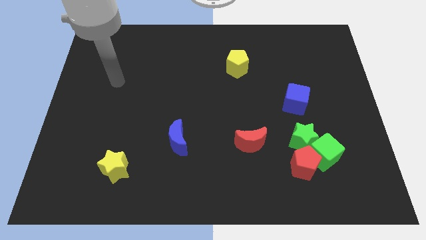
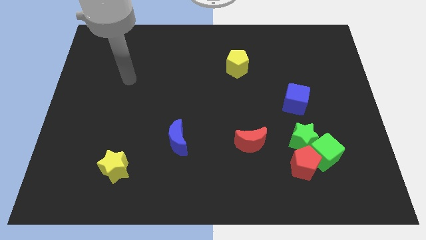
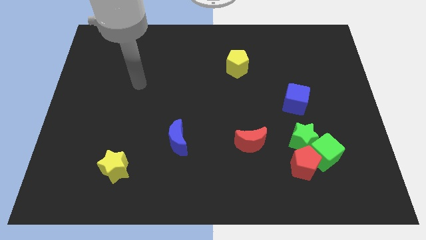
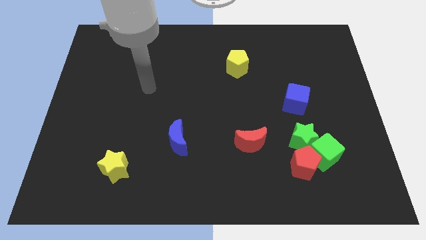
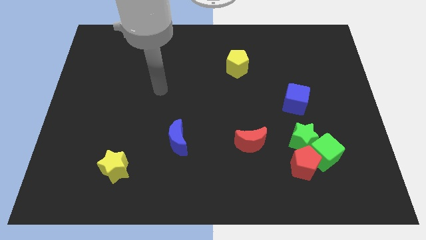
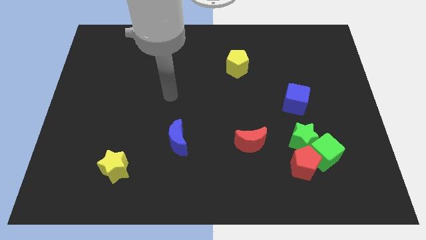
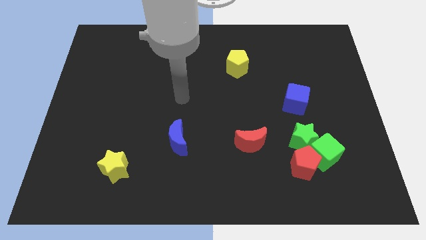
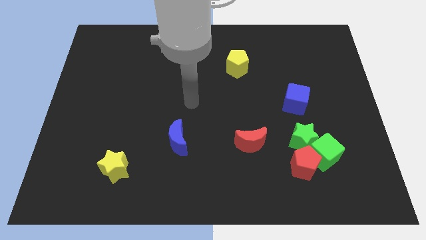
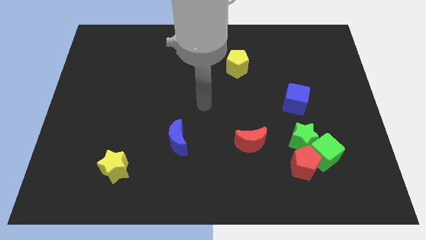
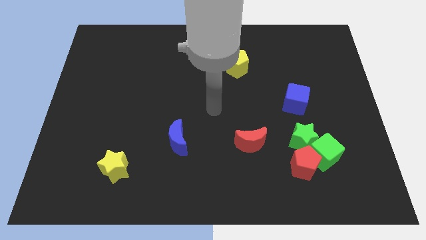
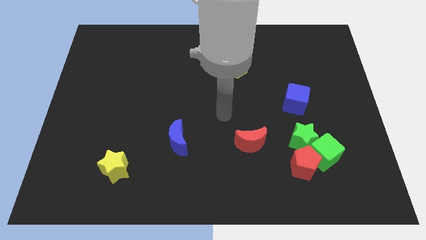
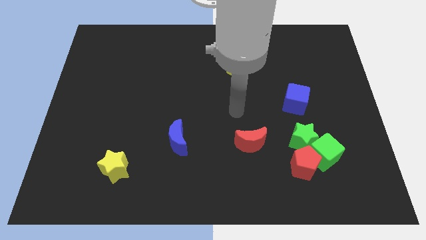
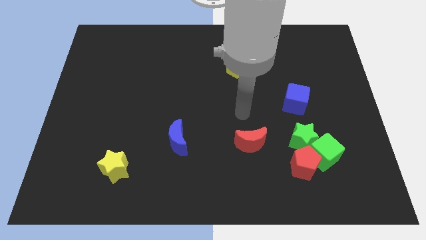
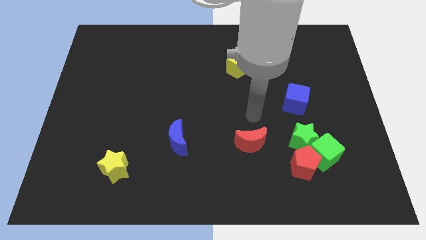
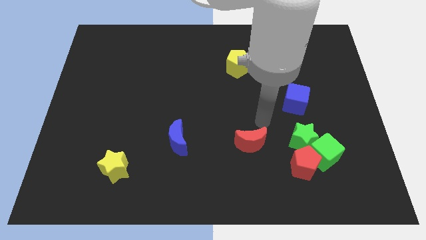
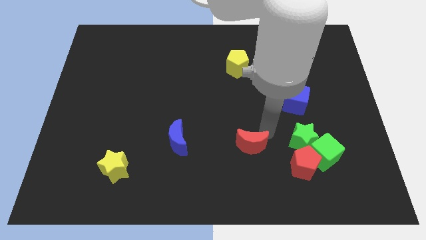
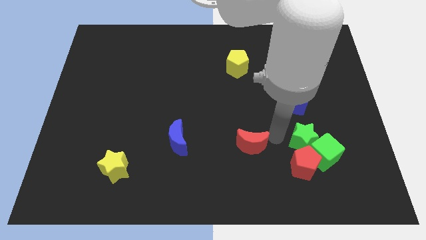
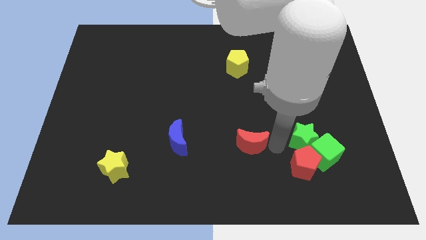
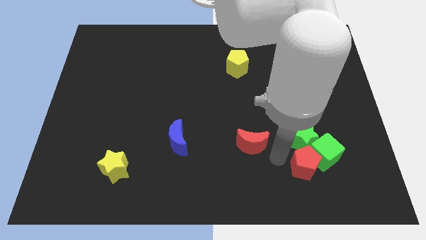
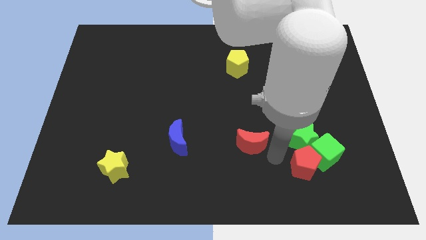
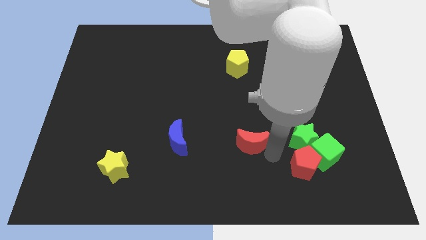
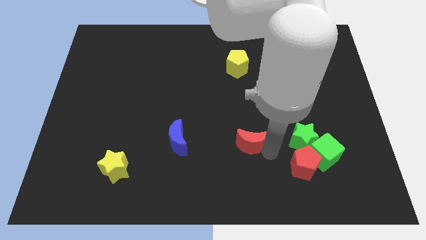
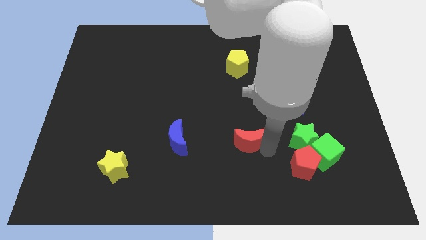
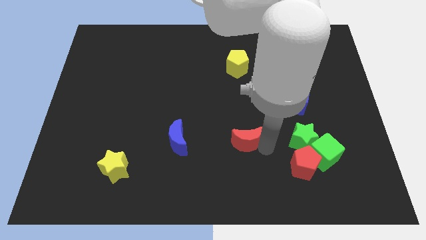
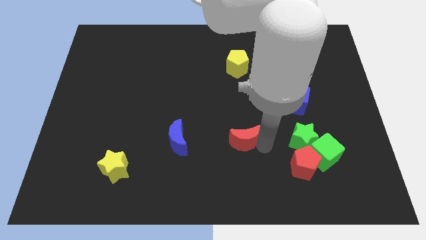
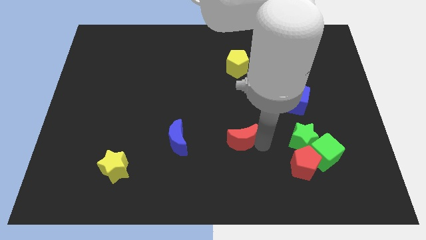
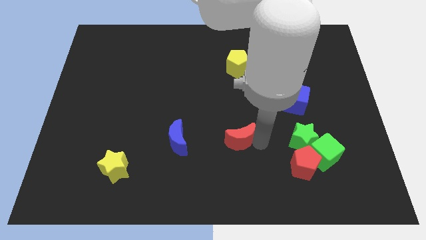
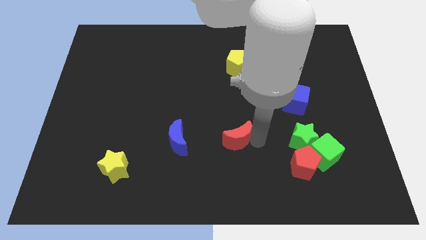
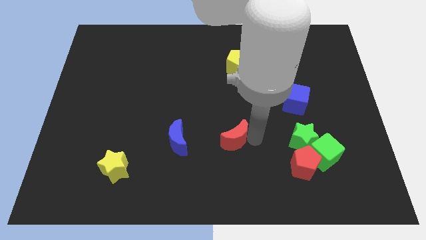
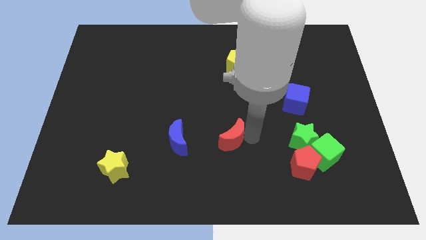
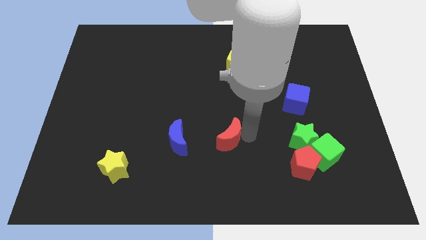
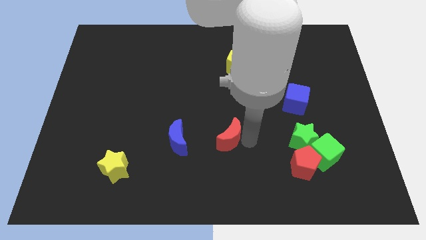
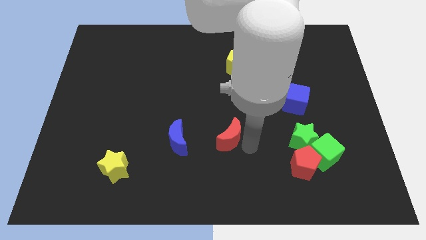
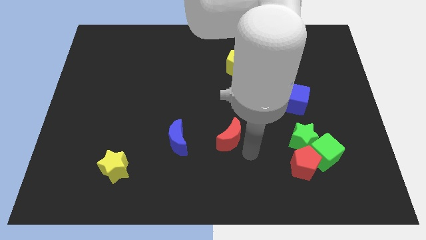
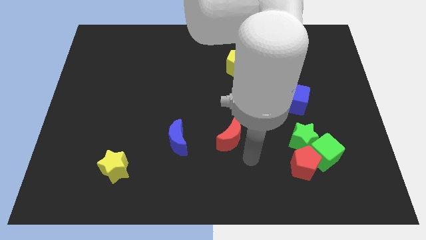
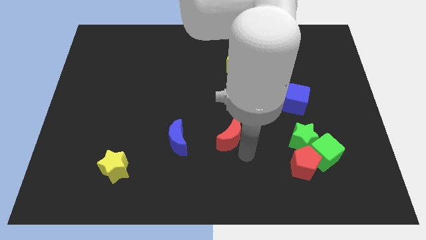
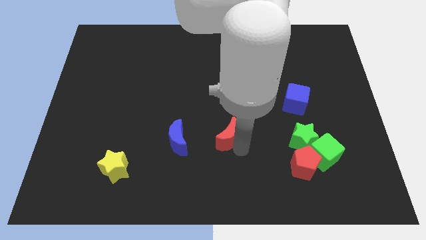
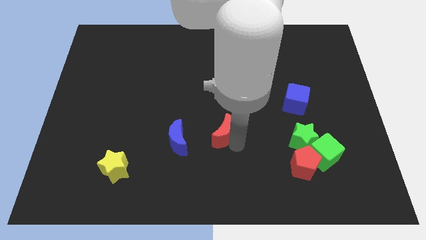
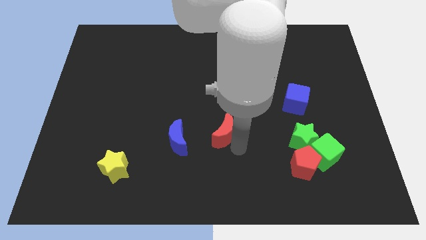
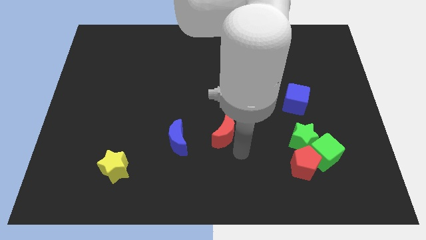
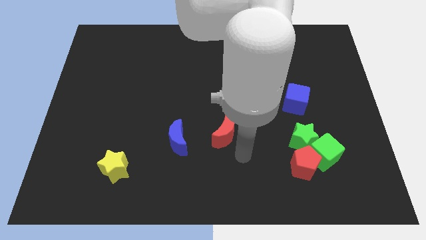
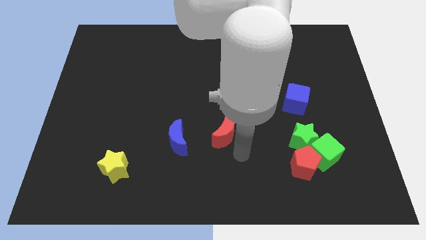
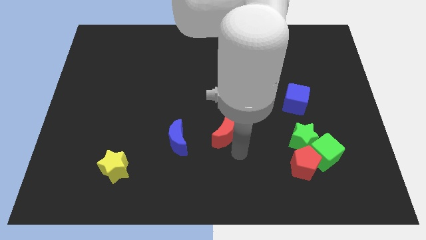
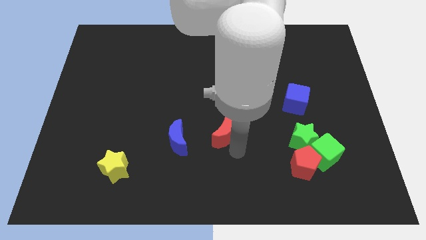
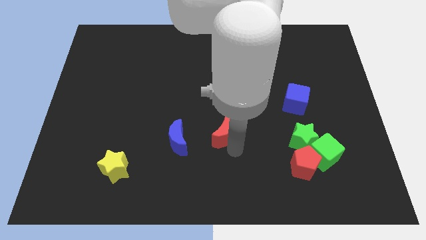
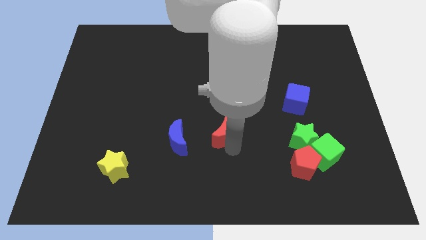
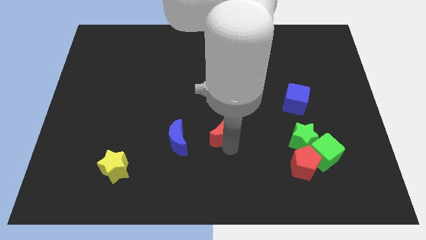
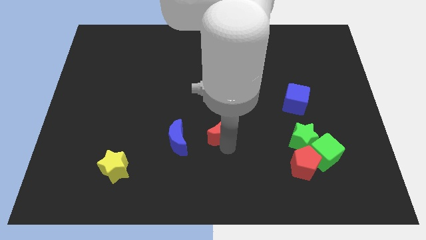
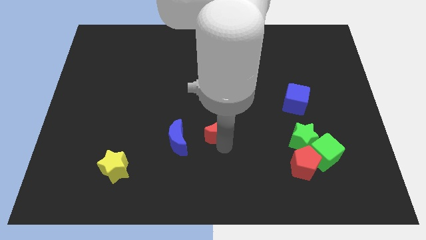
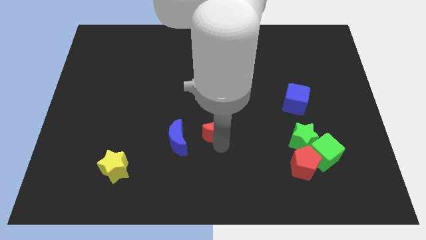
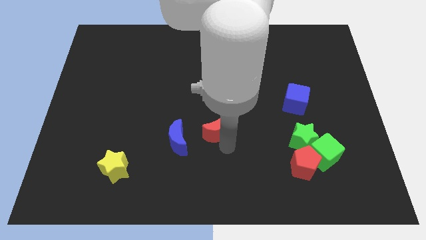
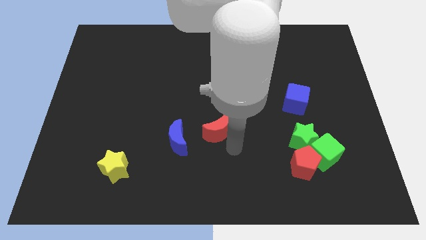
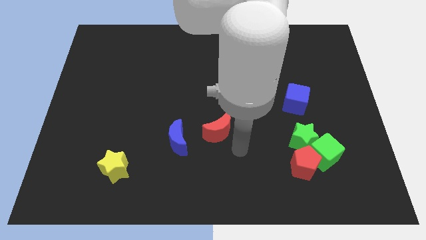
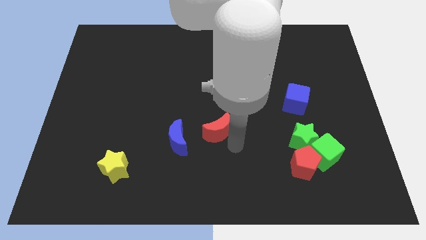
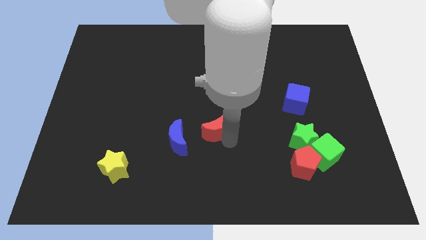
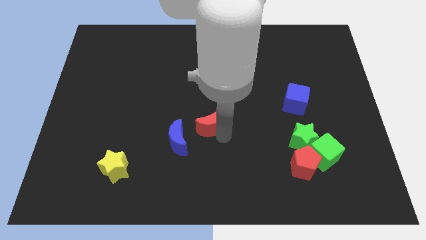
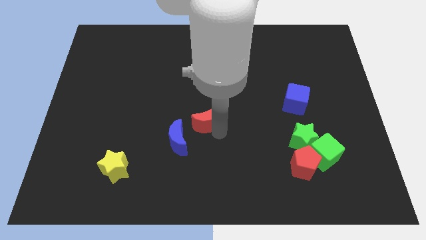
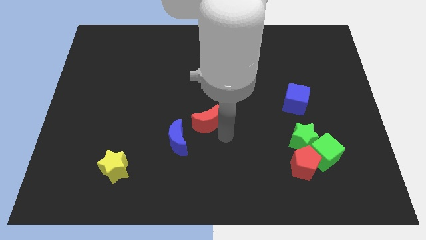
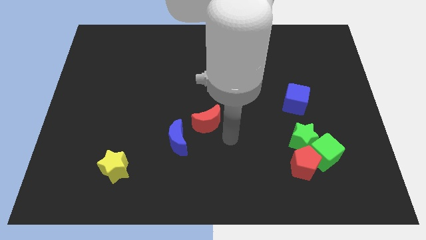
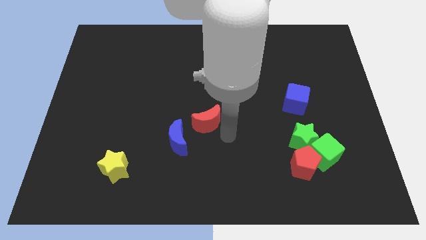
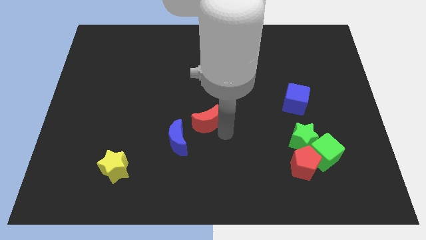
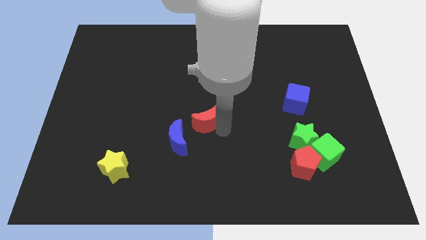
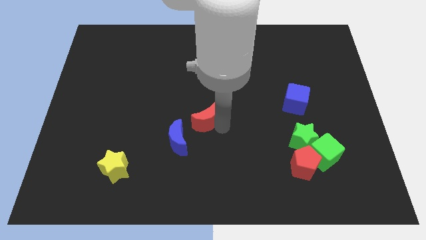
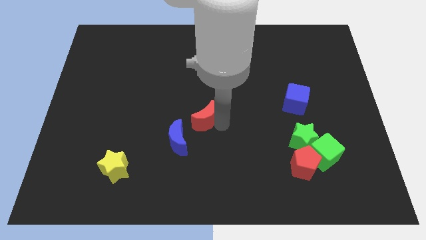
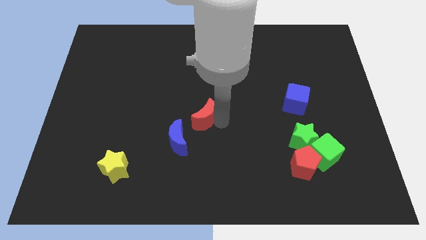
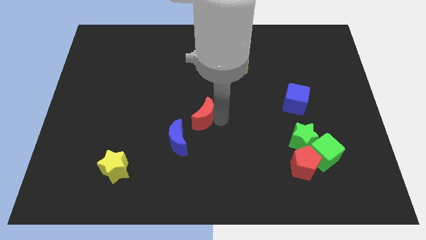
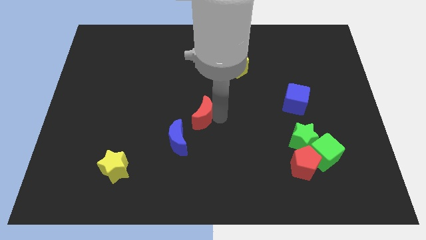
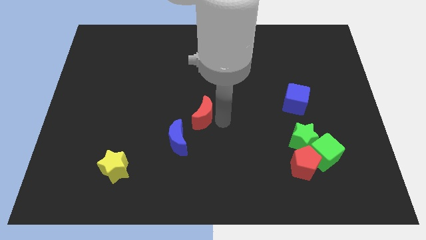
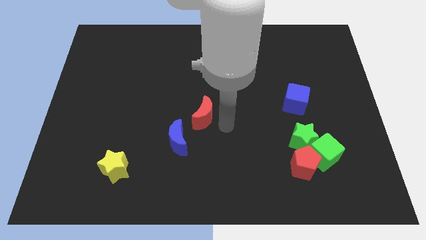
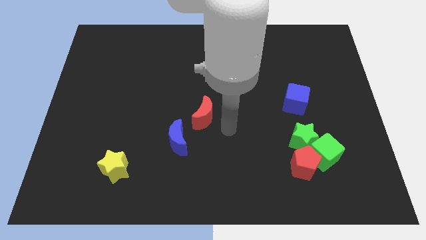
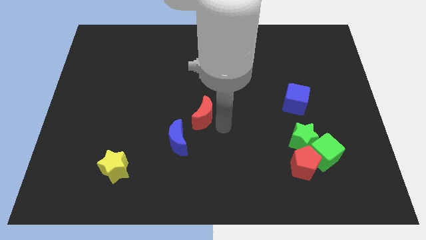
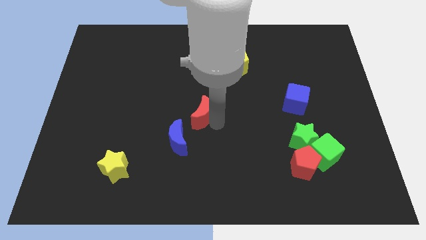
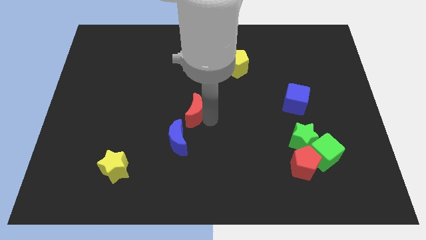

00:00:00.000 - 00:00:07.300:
move the red moon above the blue moon
